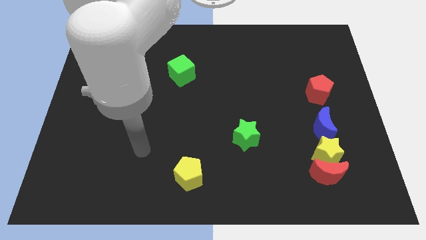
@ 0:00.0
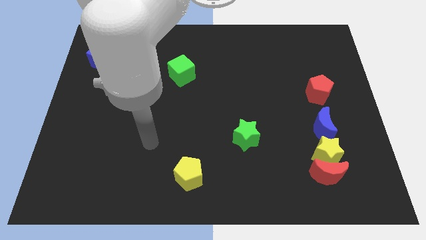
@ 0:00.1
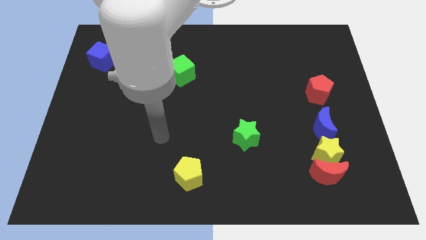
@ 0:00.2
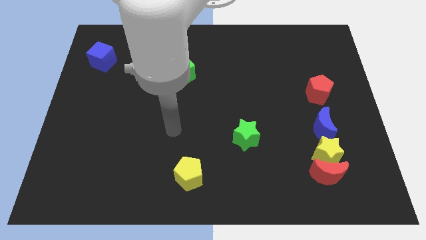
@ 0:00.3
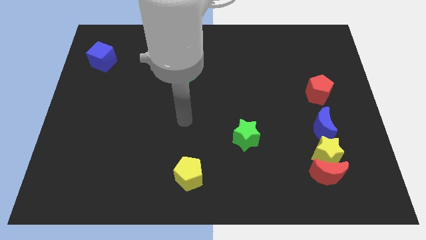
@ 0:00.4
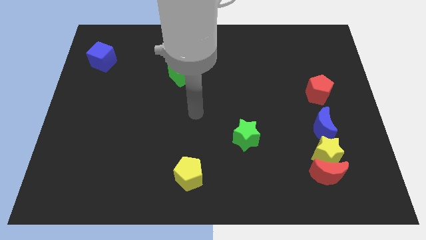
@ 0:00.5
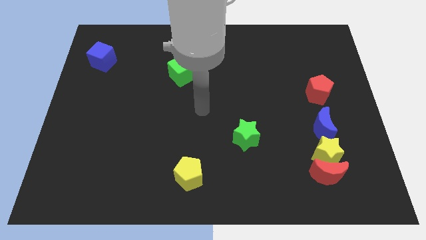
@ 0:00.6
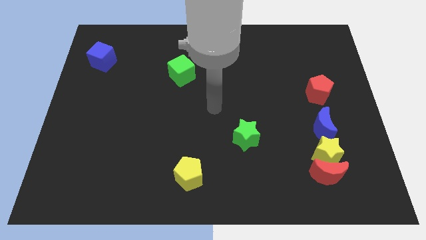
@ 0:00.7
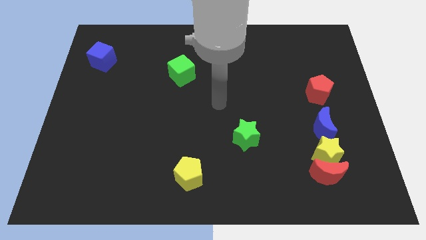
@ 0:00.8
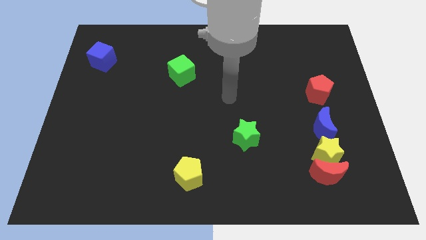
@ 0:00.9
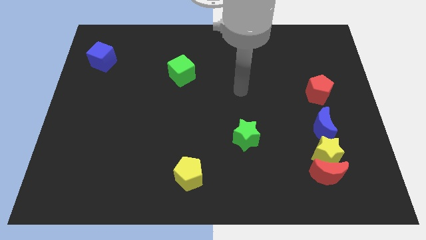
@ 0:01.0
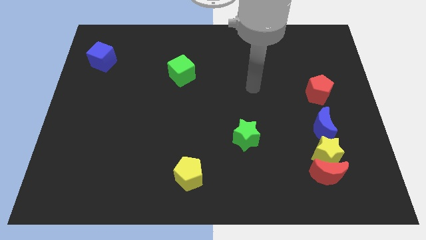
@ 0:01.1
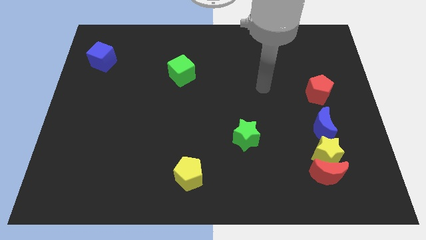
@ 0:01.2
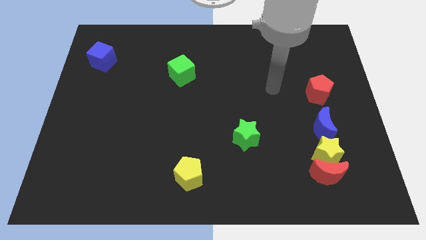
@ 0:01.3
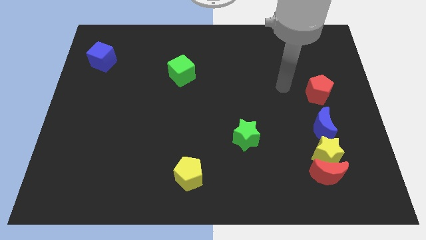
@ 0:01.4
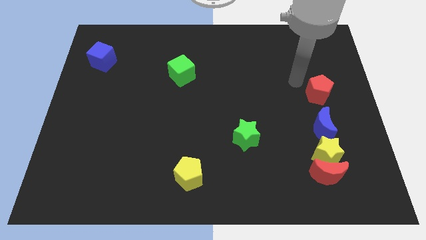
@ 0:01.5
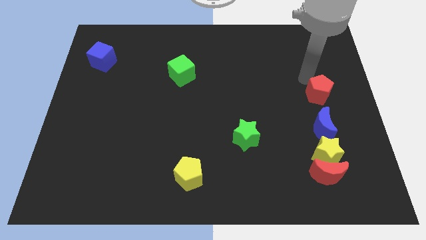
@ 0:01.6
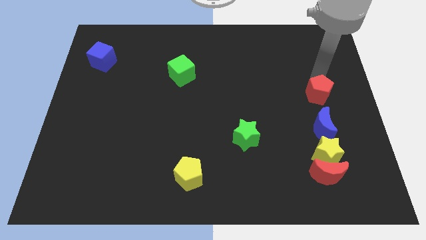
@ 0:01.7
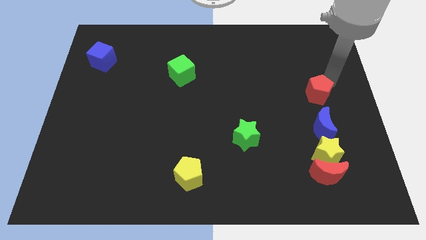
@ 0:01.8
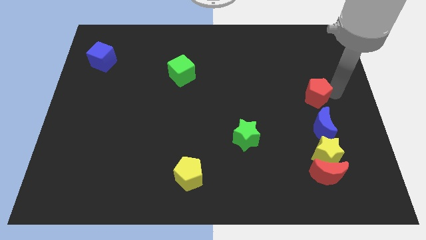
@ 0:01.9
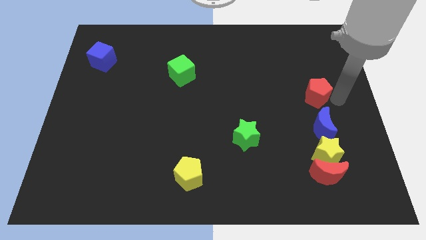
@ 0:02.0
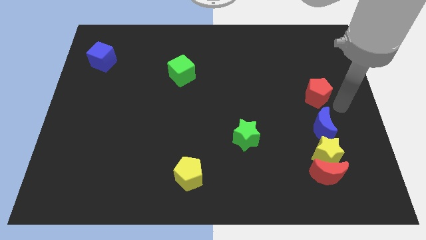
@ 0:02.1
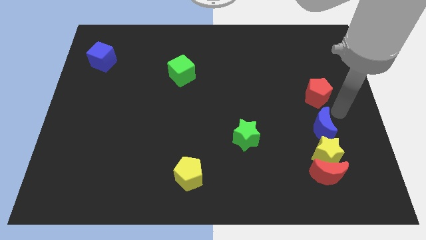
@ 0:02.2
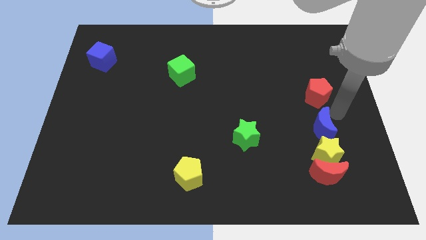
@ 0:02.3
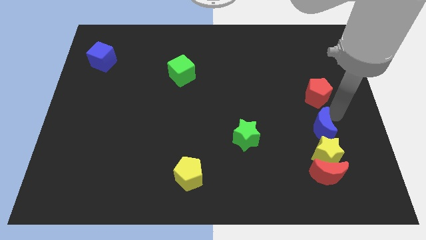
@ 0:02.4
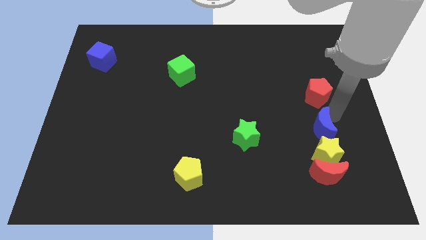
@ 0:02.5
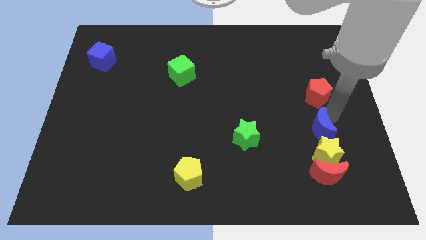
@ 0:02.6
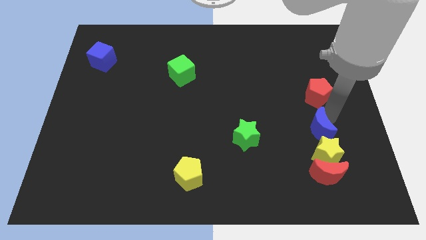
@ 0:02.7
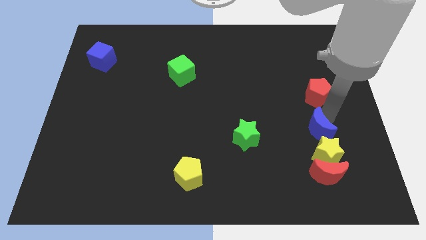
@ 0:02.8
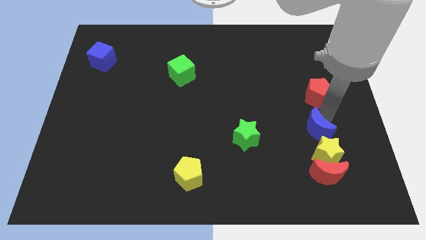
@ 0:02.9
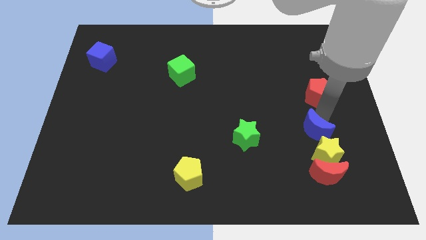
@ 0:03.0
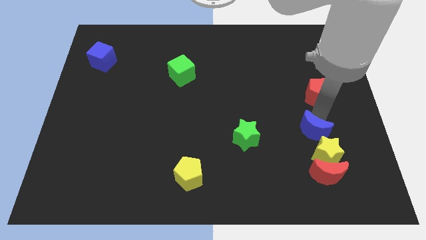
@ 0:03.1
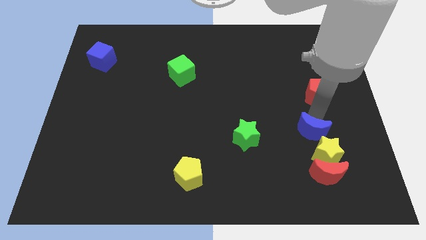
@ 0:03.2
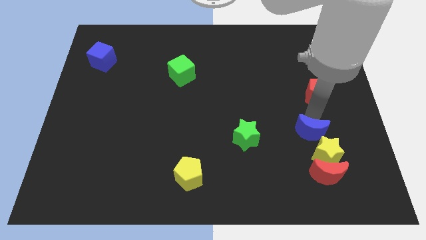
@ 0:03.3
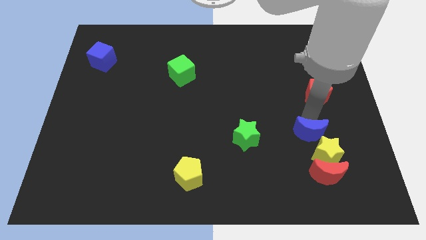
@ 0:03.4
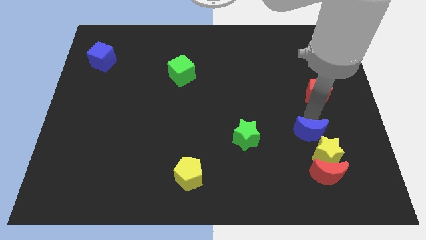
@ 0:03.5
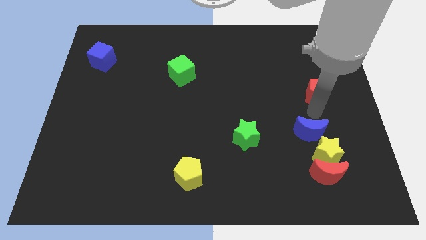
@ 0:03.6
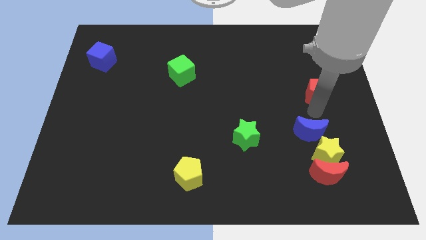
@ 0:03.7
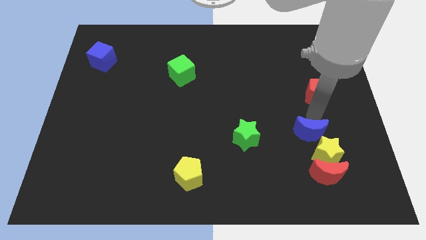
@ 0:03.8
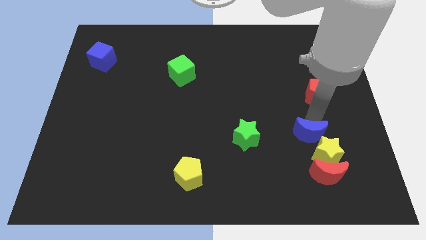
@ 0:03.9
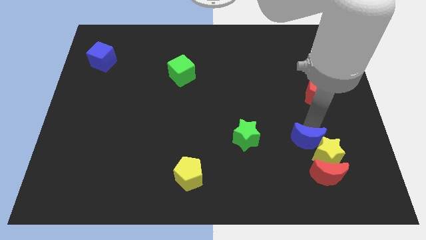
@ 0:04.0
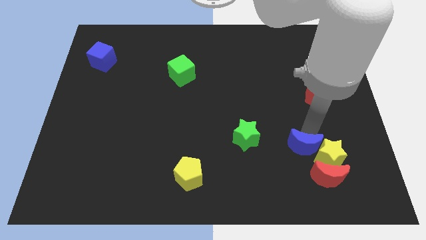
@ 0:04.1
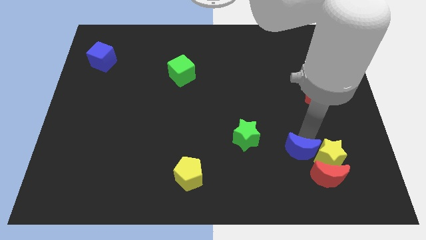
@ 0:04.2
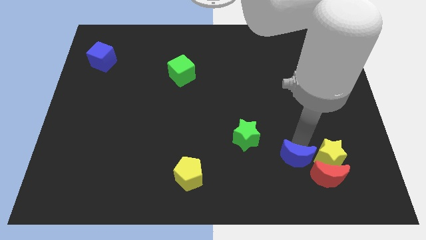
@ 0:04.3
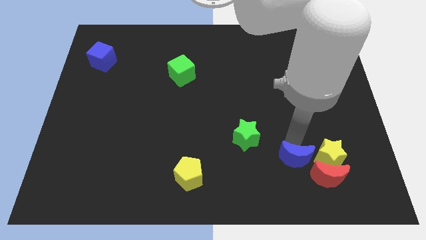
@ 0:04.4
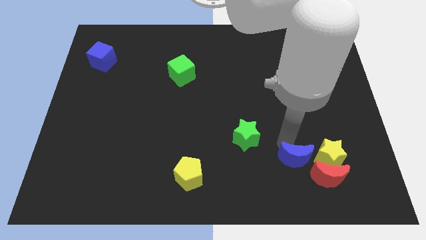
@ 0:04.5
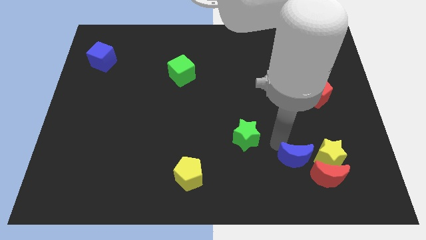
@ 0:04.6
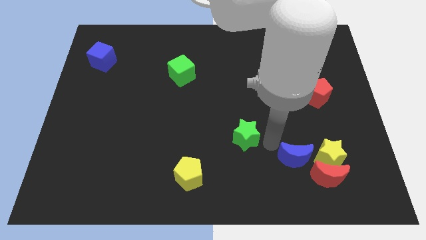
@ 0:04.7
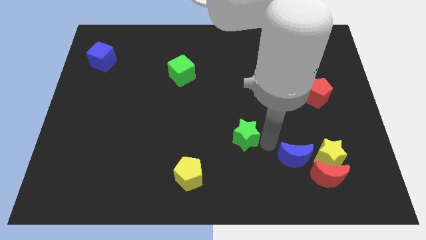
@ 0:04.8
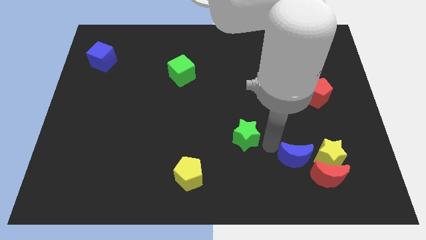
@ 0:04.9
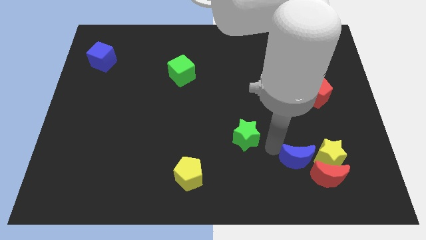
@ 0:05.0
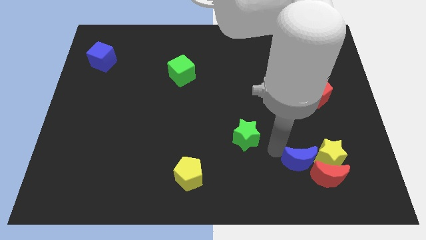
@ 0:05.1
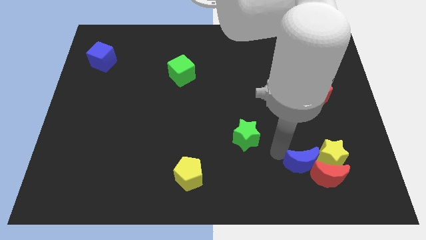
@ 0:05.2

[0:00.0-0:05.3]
slide the blue moon next to the red moon

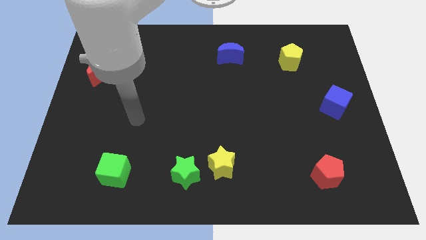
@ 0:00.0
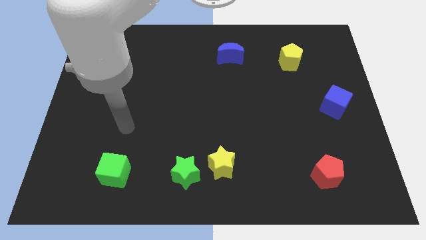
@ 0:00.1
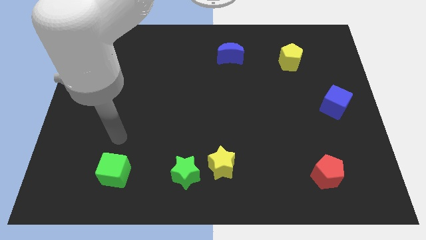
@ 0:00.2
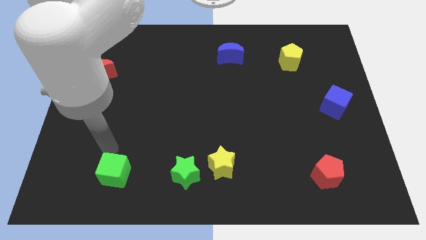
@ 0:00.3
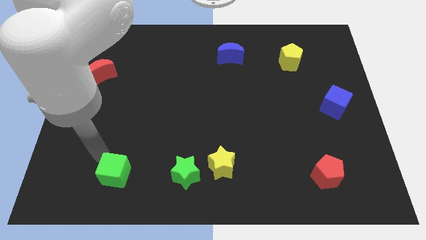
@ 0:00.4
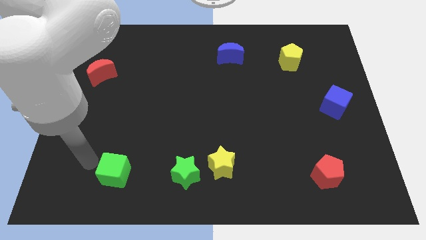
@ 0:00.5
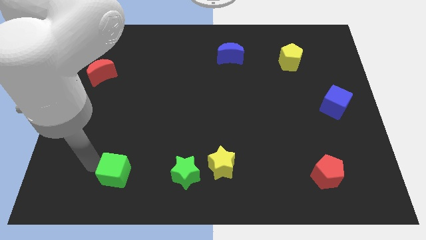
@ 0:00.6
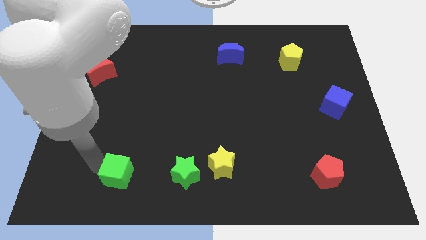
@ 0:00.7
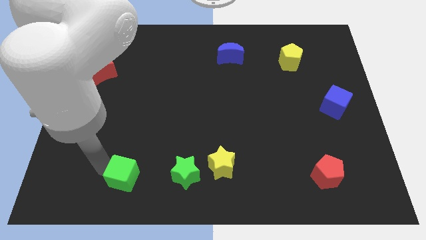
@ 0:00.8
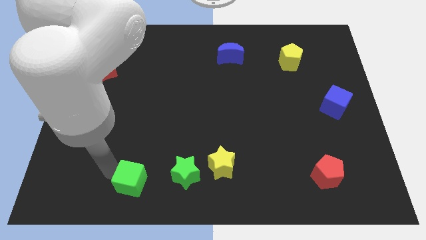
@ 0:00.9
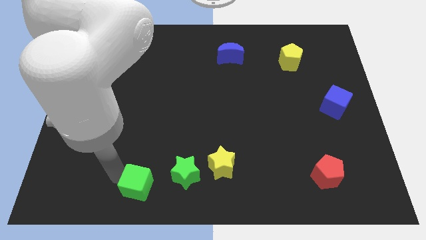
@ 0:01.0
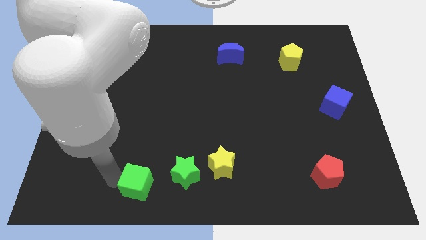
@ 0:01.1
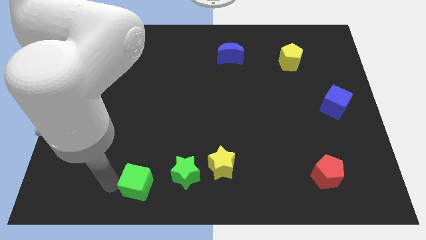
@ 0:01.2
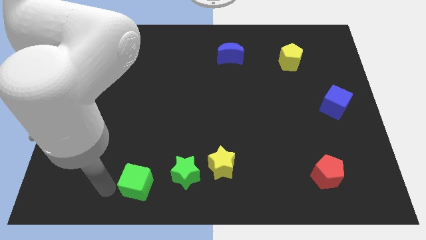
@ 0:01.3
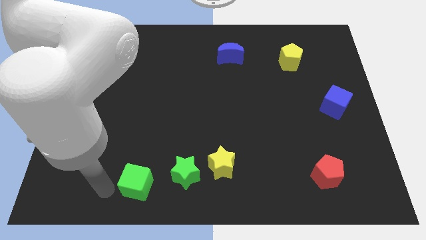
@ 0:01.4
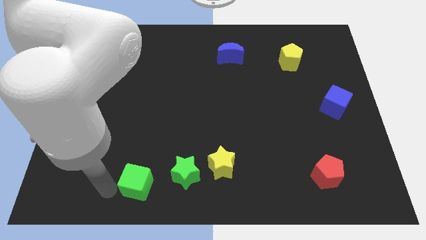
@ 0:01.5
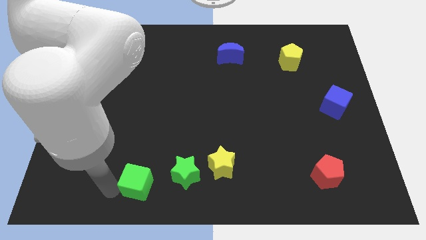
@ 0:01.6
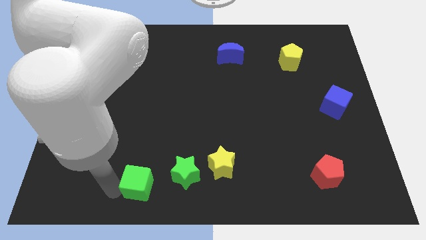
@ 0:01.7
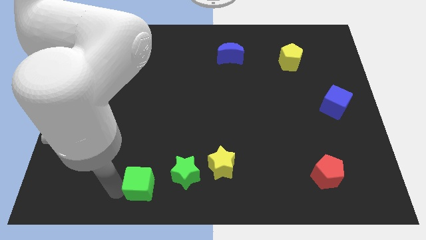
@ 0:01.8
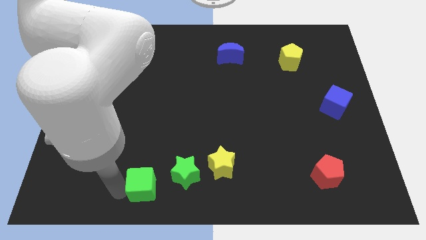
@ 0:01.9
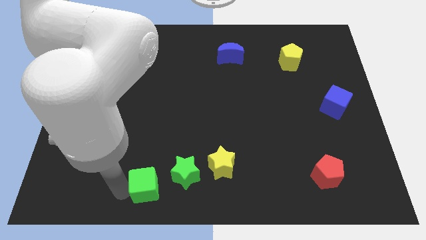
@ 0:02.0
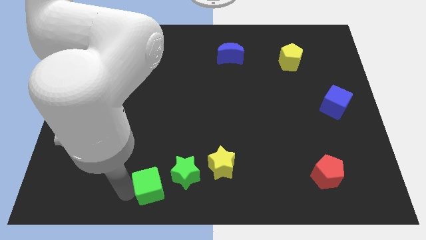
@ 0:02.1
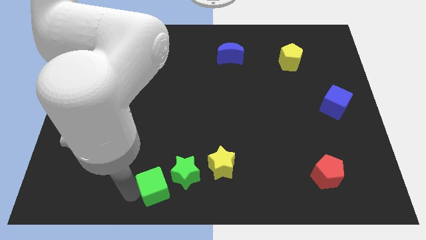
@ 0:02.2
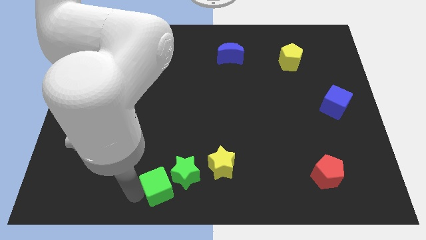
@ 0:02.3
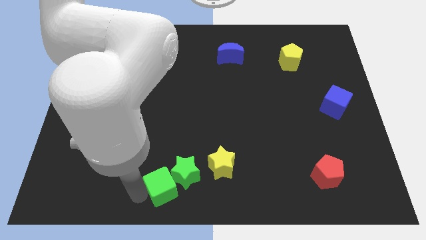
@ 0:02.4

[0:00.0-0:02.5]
move the green cube towards the green star
